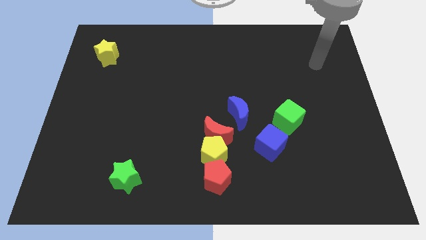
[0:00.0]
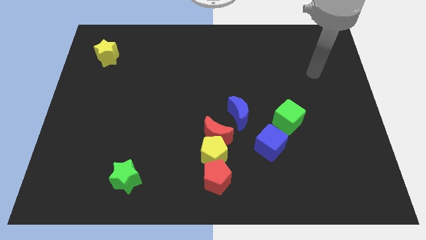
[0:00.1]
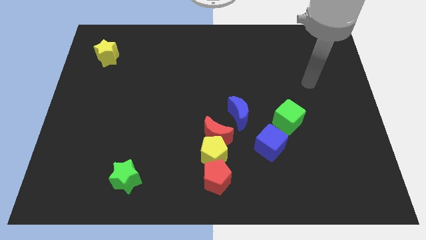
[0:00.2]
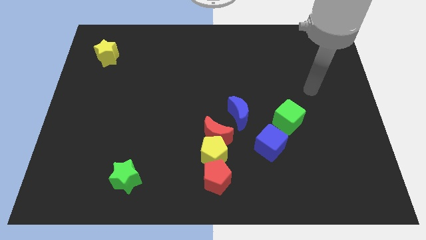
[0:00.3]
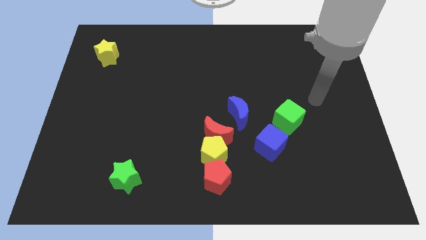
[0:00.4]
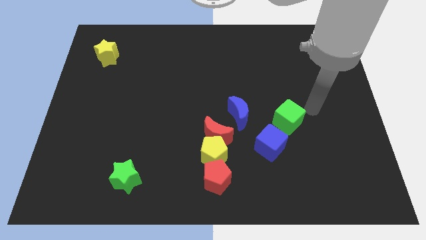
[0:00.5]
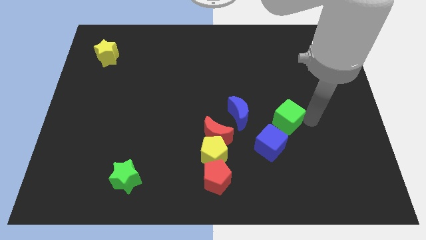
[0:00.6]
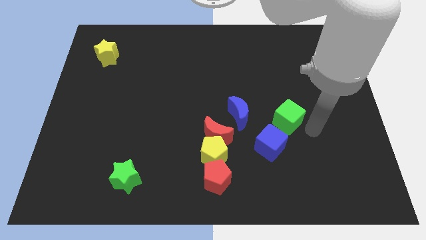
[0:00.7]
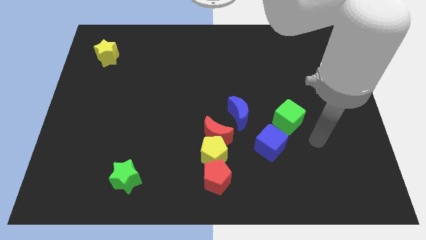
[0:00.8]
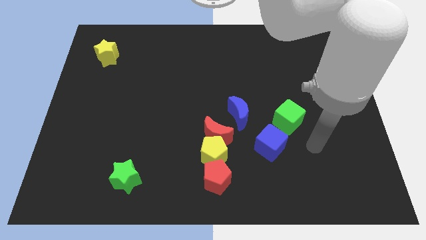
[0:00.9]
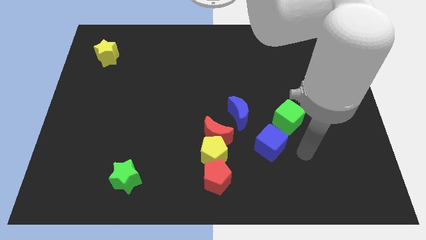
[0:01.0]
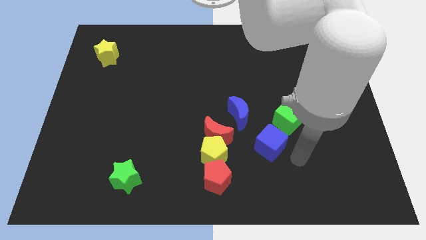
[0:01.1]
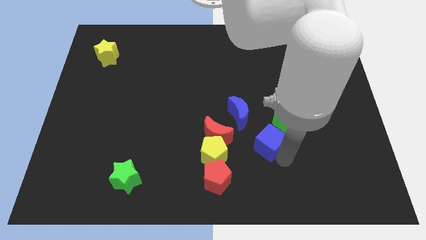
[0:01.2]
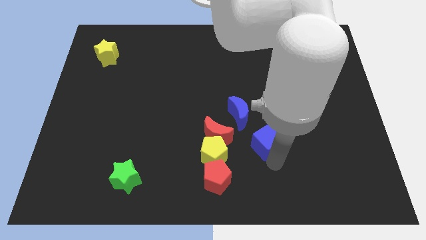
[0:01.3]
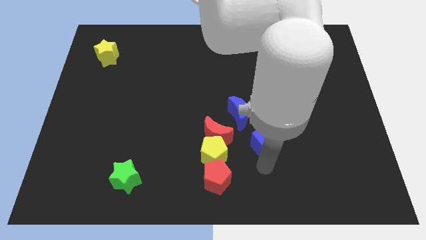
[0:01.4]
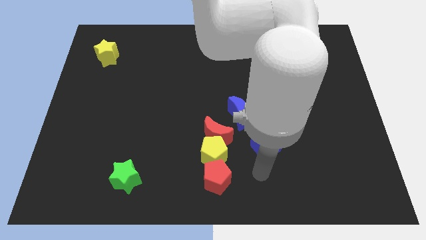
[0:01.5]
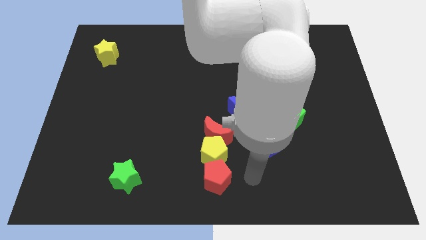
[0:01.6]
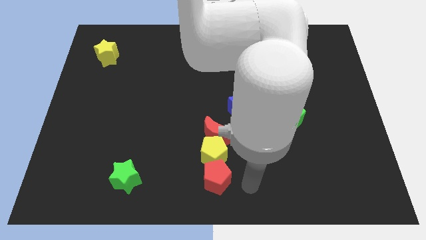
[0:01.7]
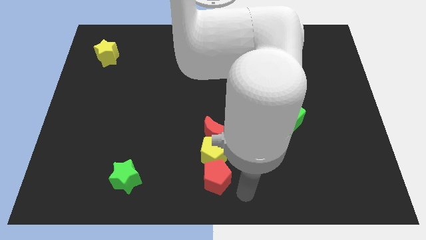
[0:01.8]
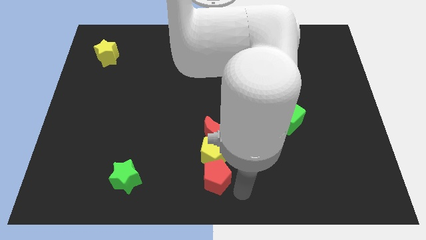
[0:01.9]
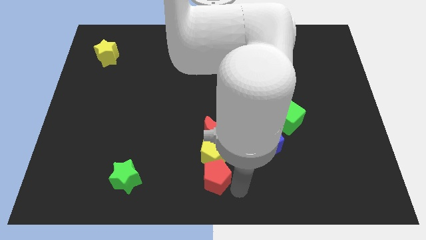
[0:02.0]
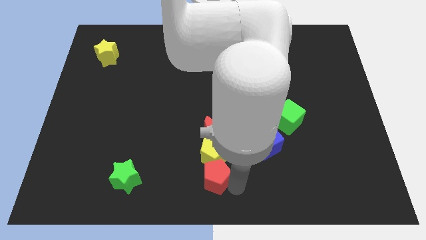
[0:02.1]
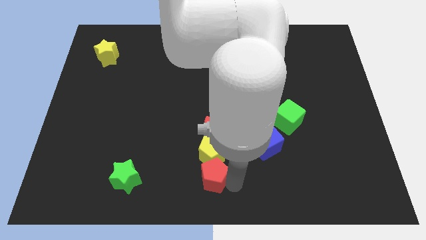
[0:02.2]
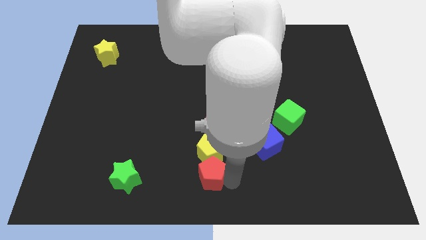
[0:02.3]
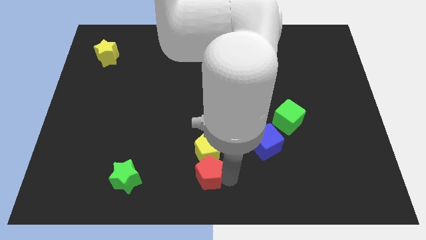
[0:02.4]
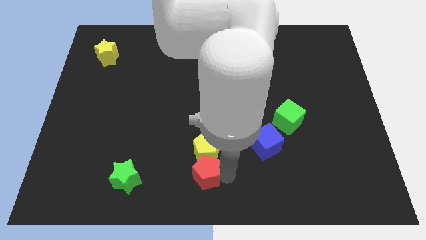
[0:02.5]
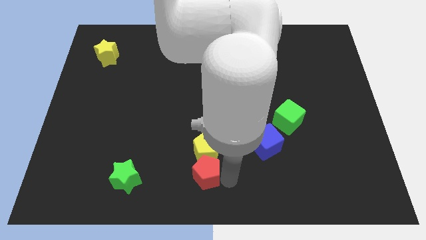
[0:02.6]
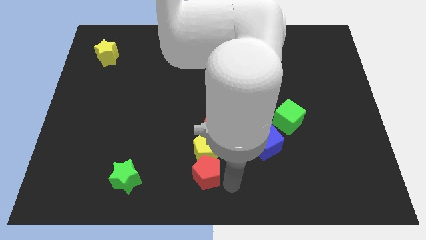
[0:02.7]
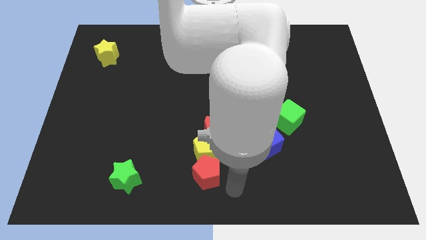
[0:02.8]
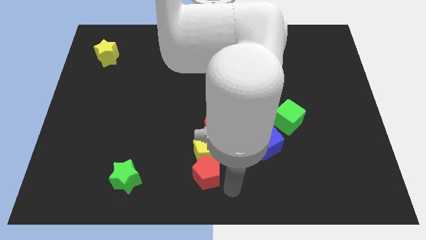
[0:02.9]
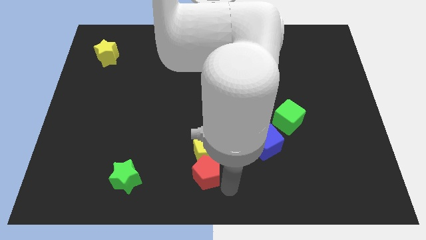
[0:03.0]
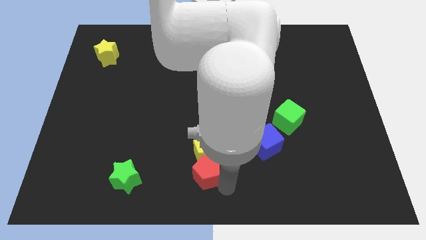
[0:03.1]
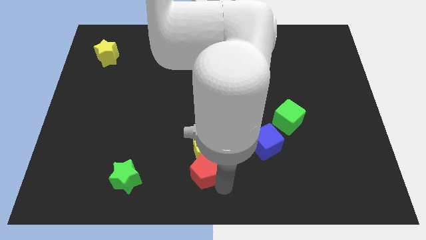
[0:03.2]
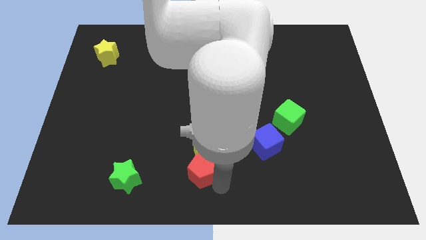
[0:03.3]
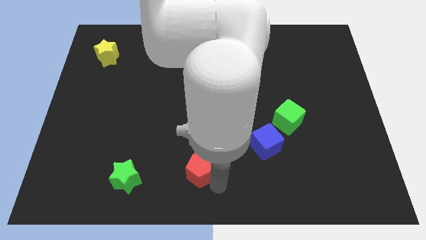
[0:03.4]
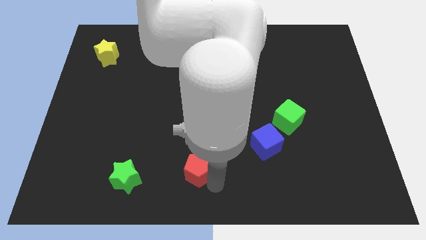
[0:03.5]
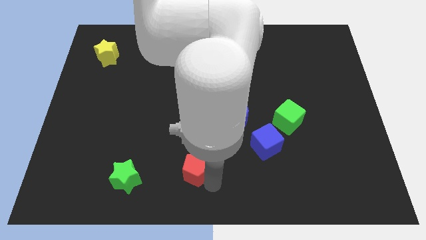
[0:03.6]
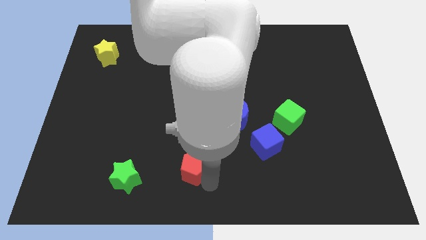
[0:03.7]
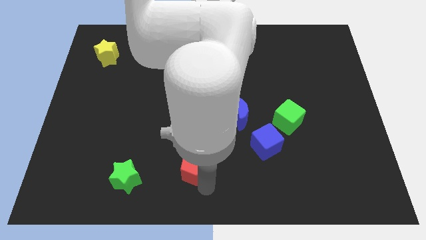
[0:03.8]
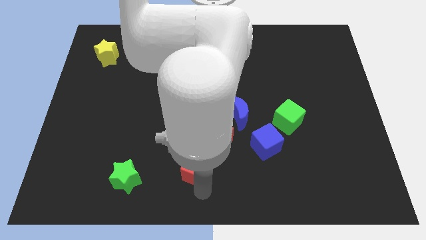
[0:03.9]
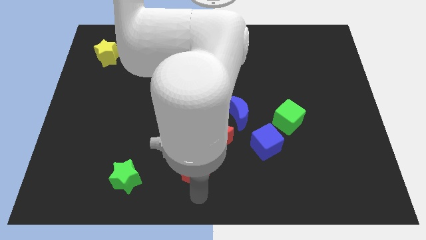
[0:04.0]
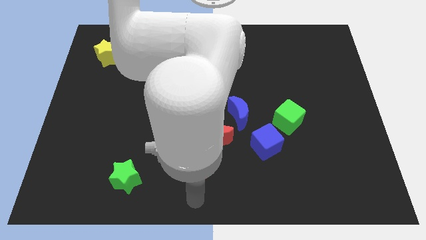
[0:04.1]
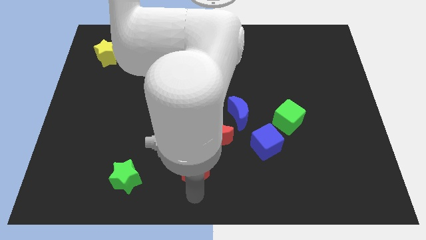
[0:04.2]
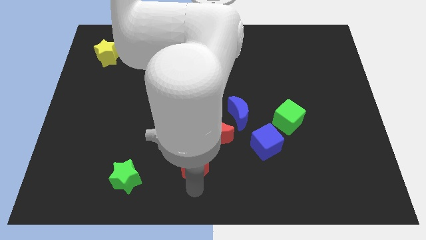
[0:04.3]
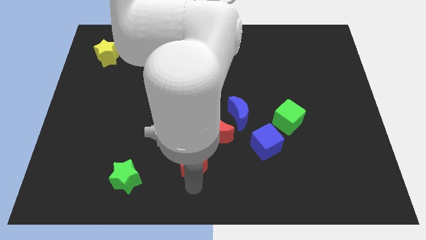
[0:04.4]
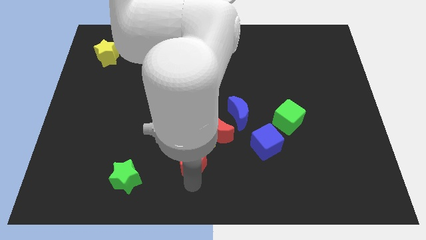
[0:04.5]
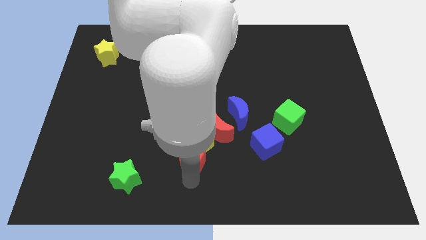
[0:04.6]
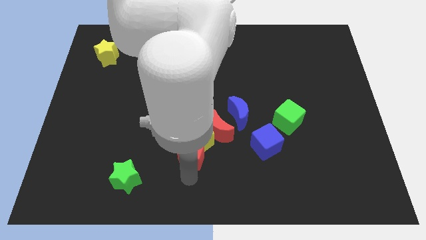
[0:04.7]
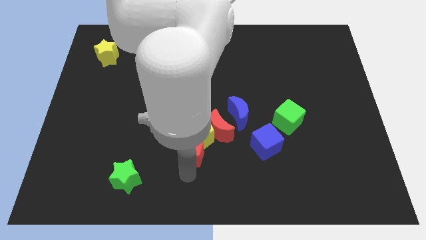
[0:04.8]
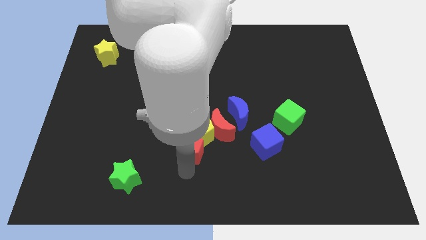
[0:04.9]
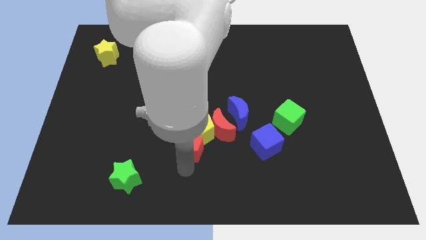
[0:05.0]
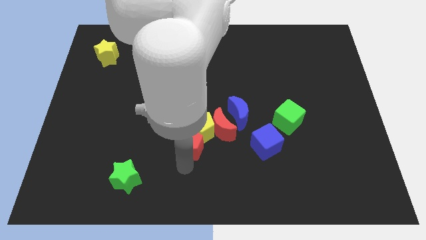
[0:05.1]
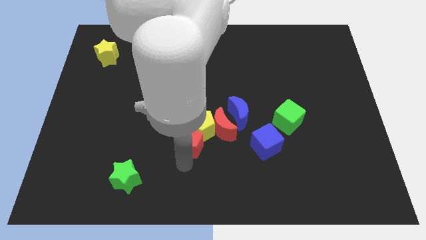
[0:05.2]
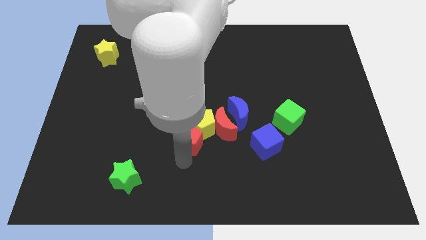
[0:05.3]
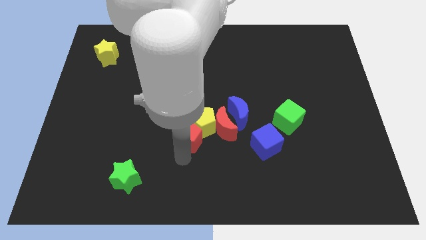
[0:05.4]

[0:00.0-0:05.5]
put the red pentagon to the center

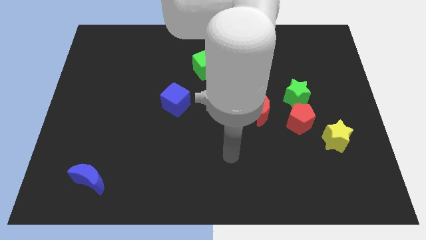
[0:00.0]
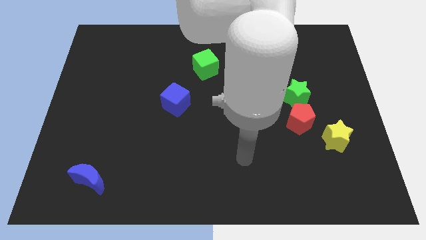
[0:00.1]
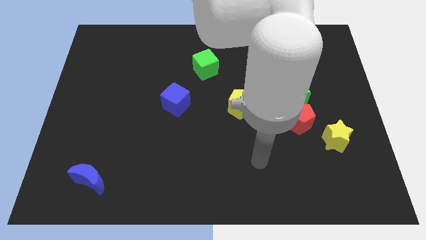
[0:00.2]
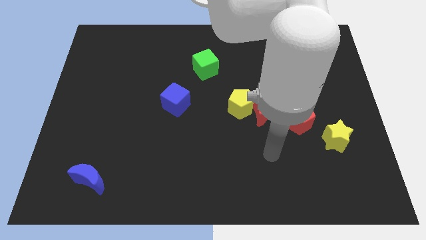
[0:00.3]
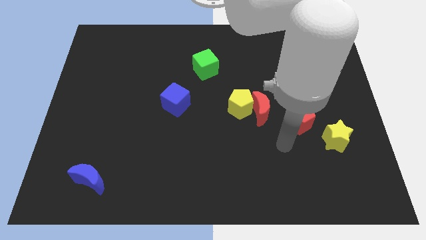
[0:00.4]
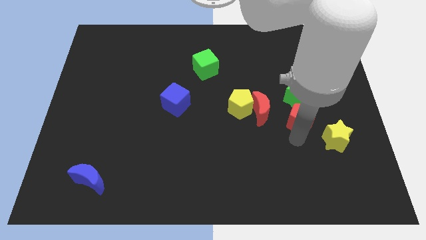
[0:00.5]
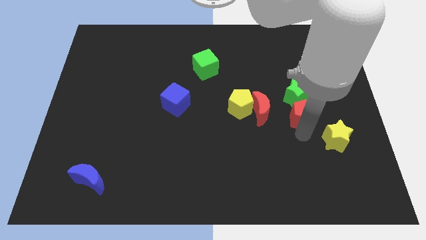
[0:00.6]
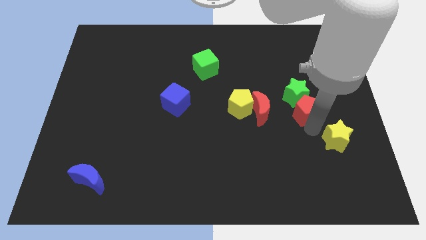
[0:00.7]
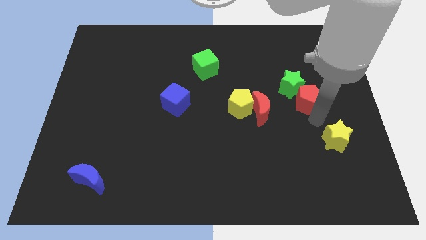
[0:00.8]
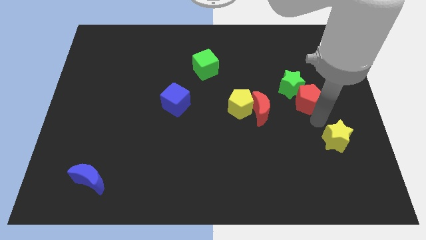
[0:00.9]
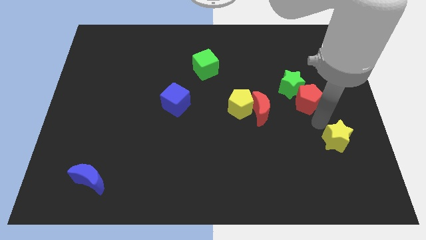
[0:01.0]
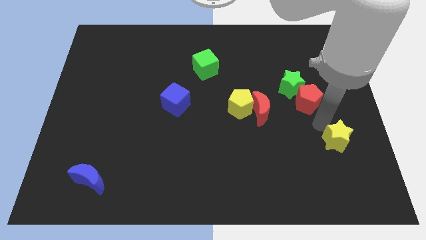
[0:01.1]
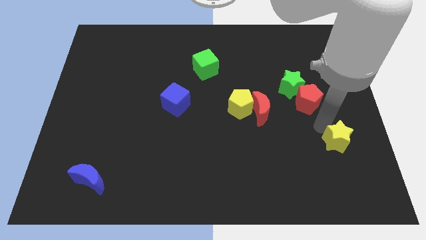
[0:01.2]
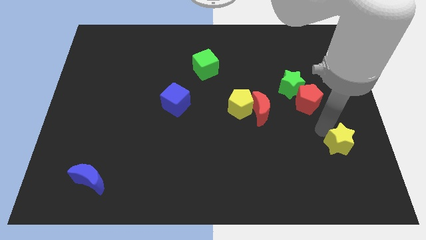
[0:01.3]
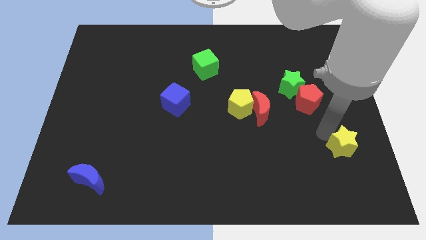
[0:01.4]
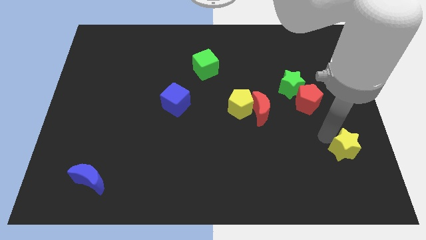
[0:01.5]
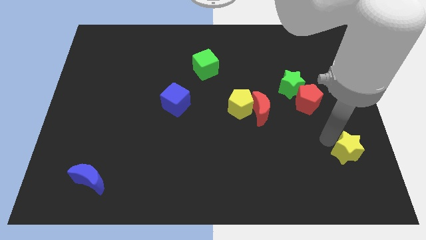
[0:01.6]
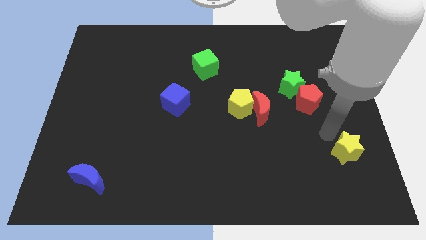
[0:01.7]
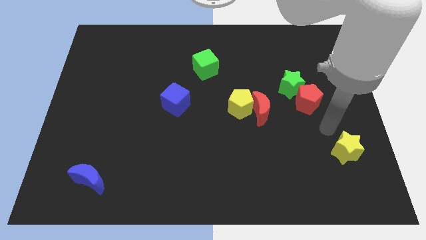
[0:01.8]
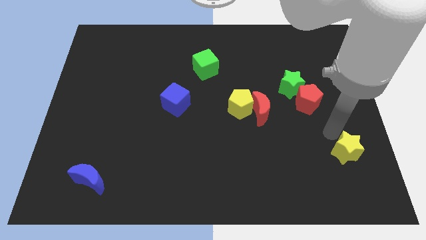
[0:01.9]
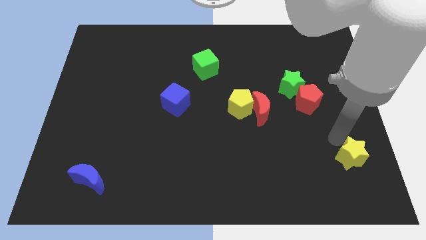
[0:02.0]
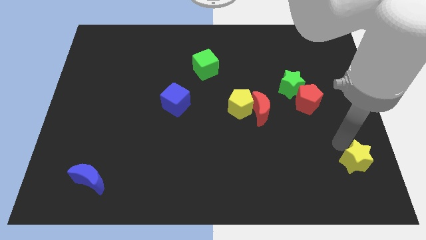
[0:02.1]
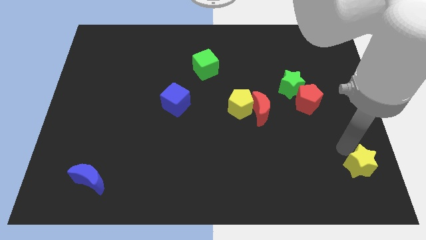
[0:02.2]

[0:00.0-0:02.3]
put the yellow star to the bottom right of the board
